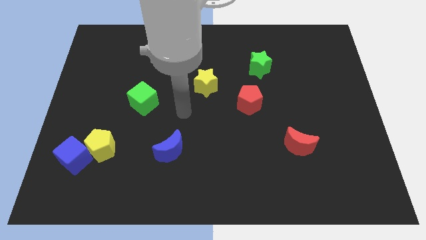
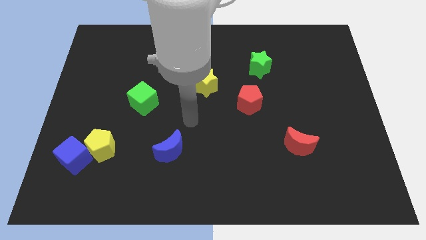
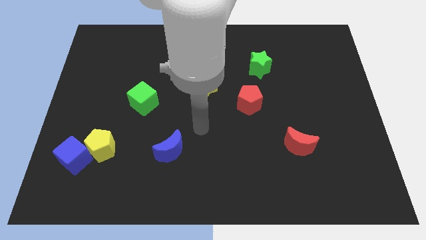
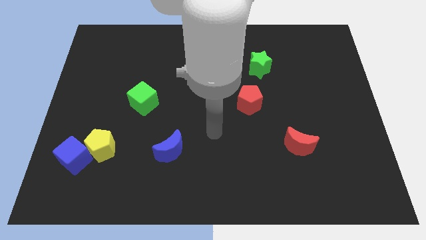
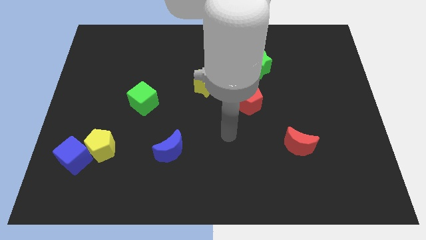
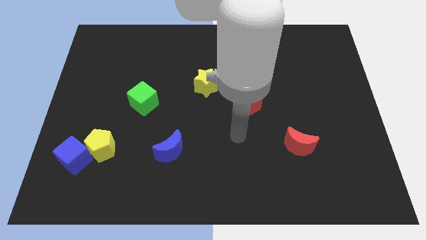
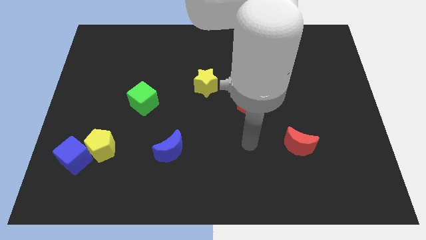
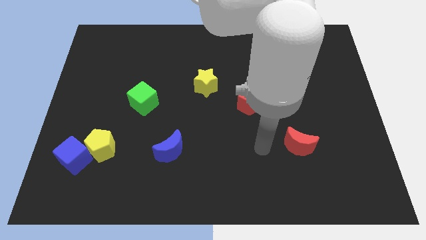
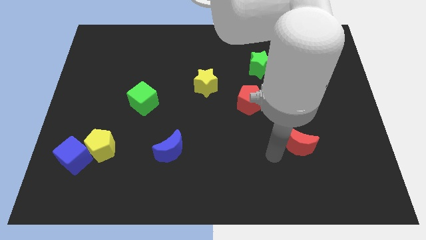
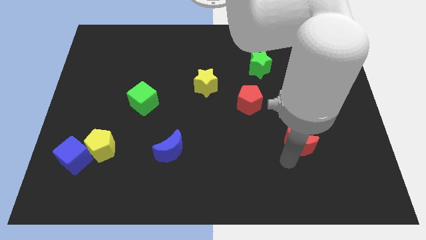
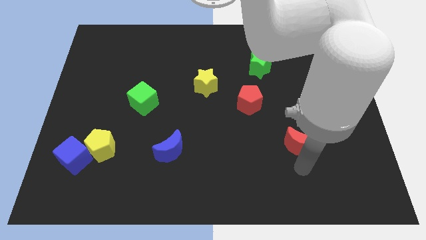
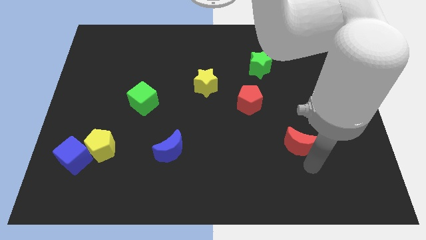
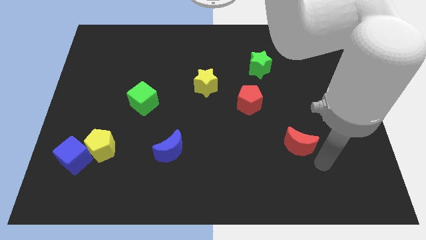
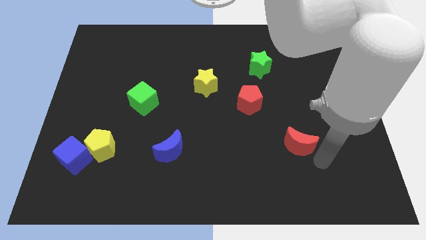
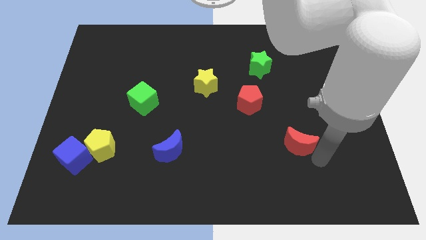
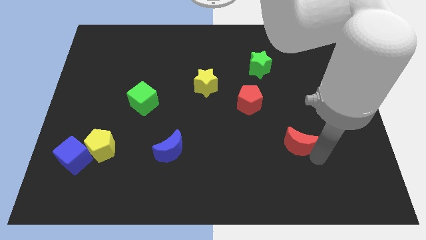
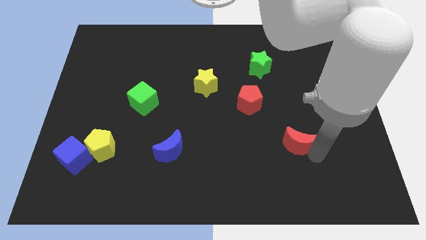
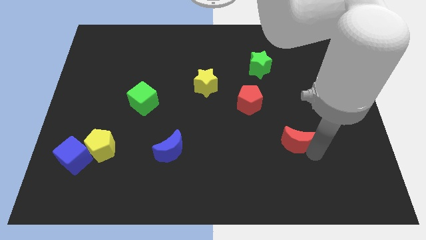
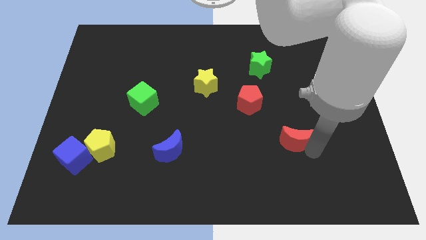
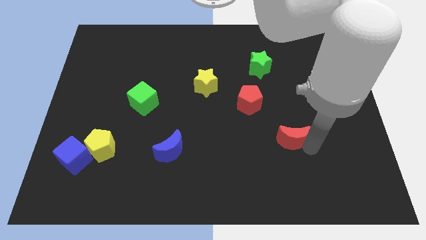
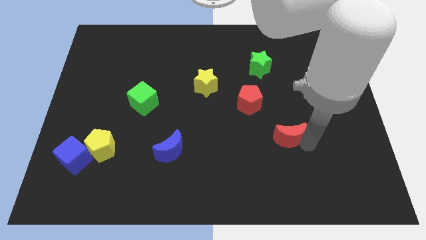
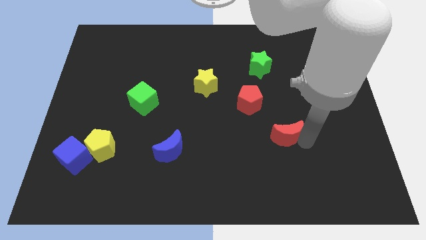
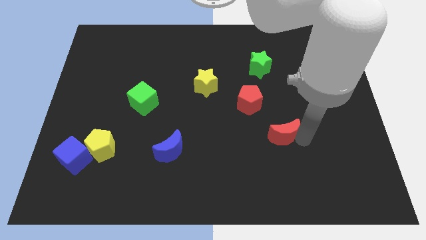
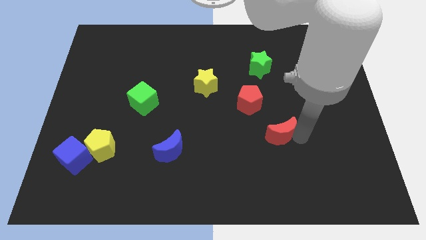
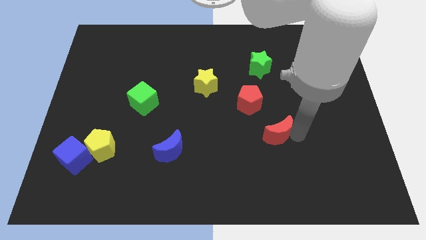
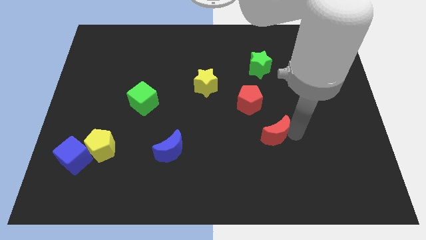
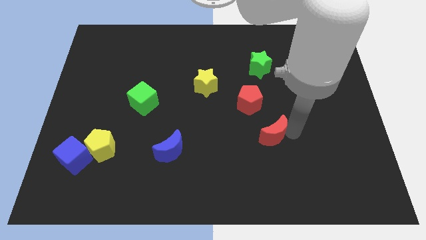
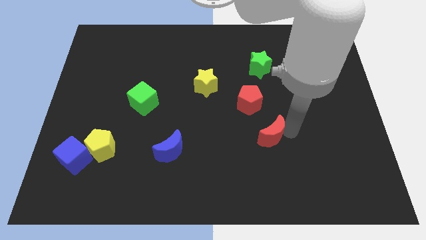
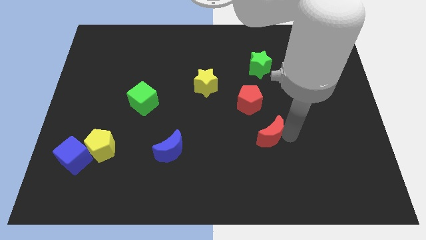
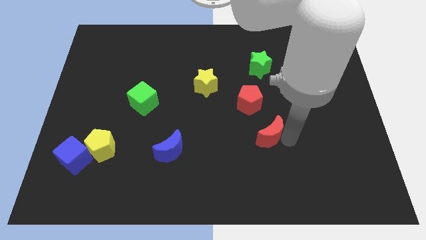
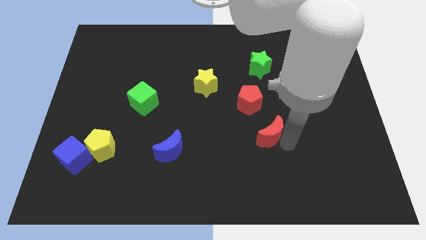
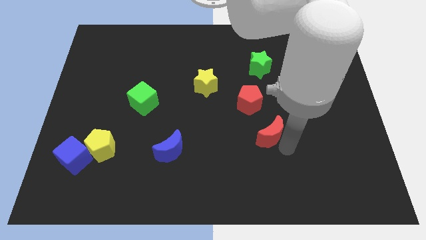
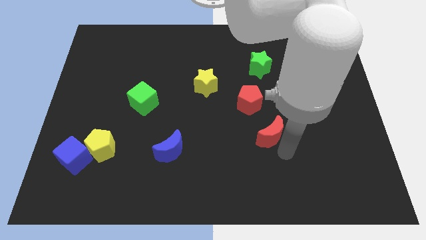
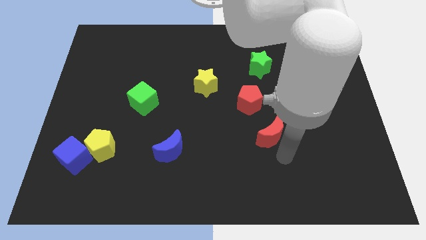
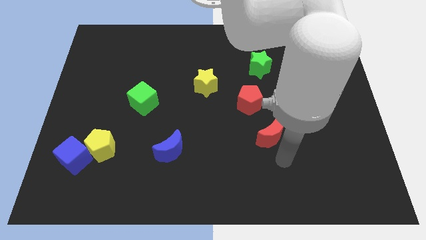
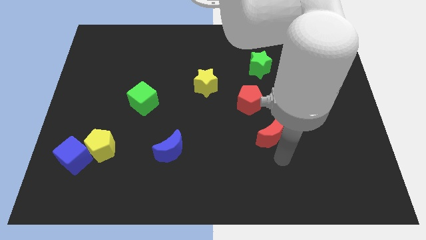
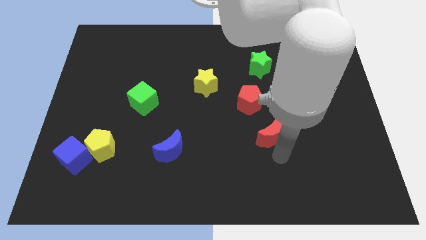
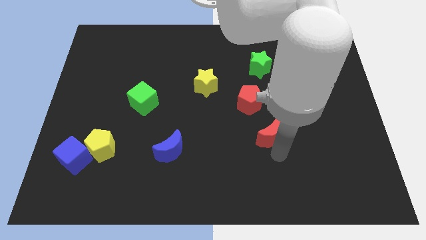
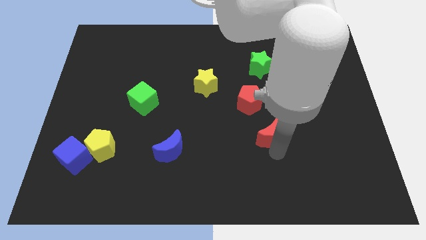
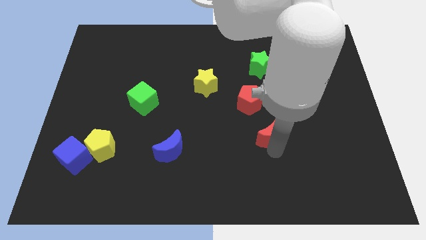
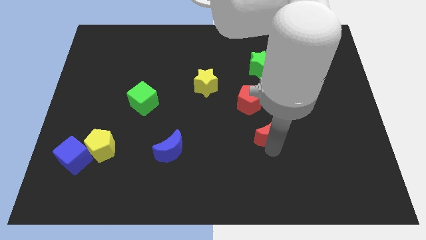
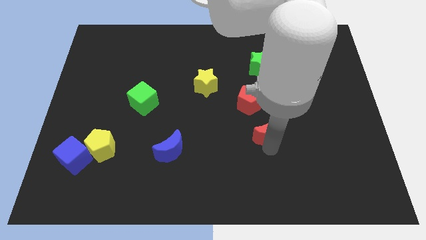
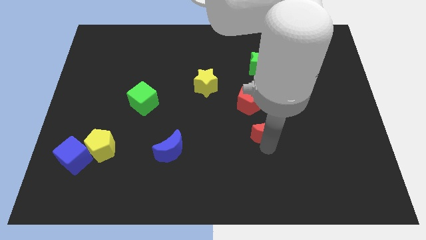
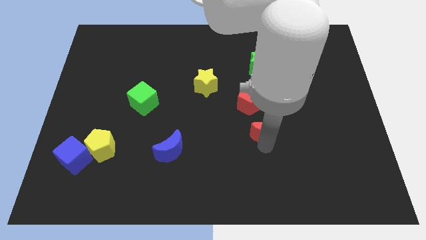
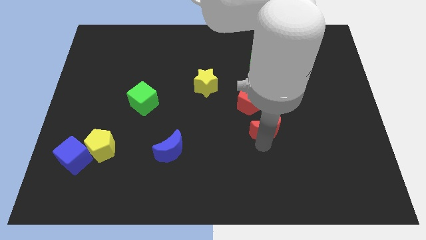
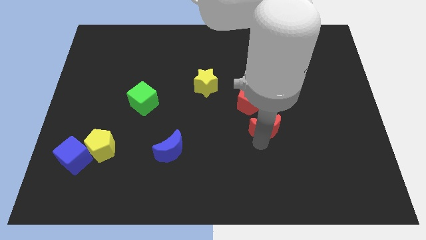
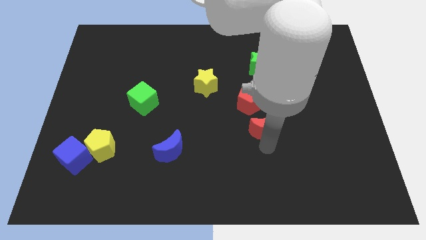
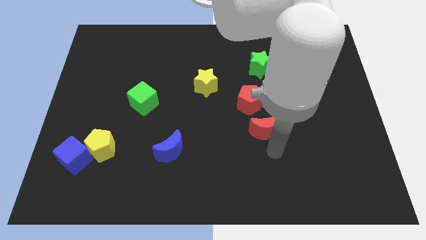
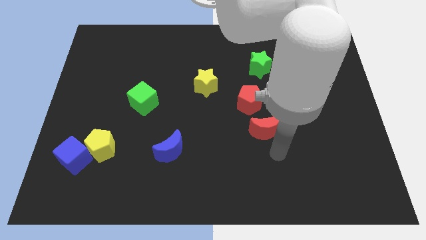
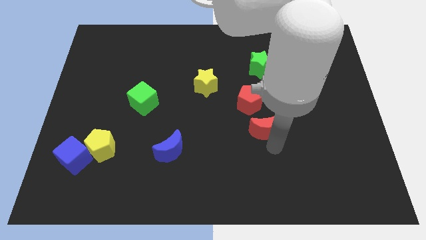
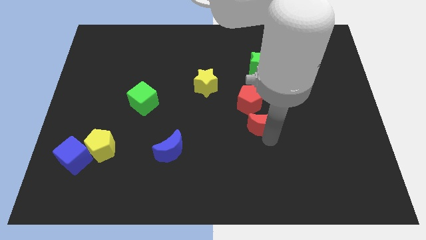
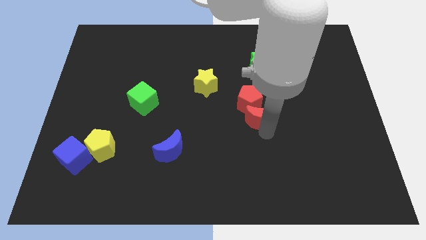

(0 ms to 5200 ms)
slide the red moon to the red pentagon

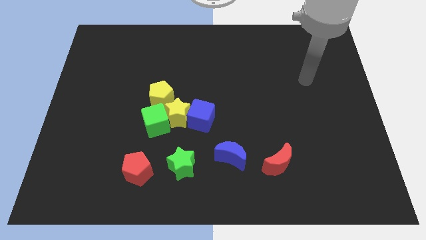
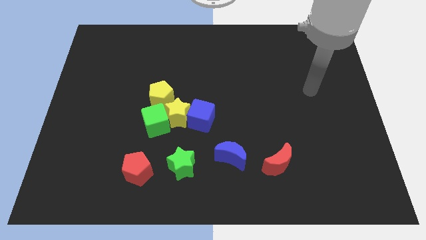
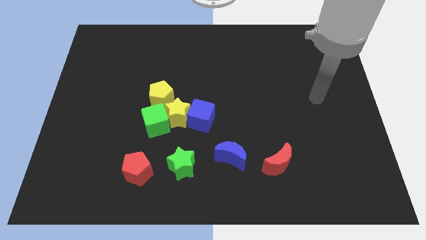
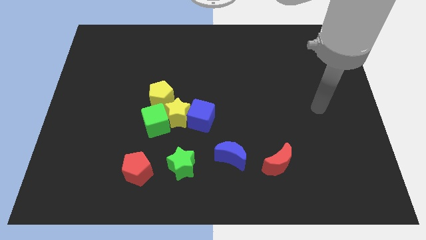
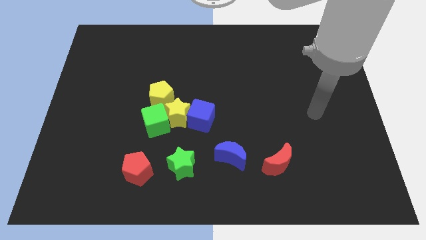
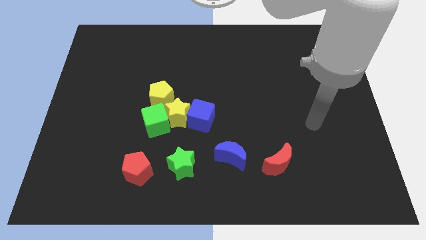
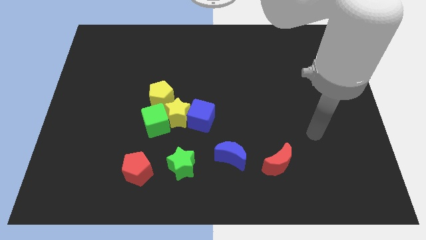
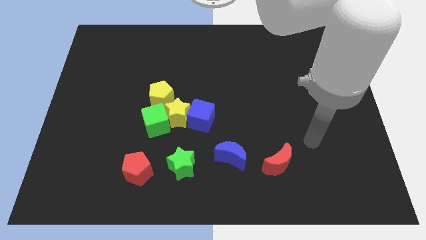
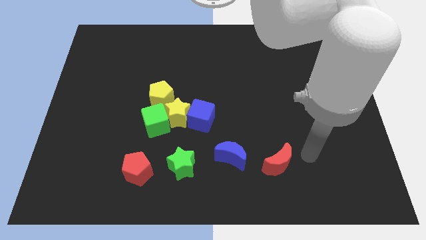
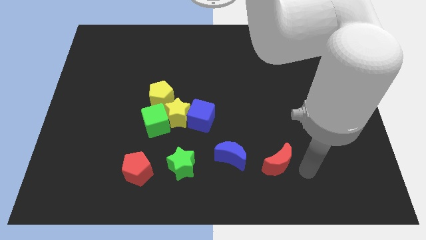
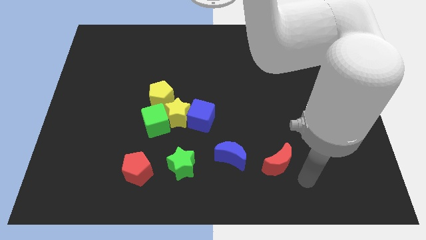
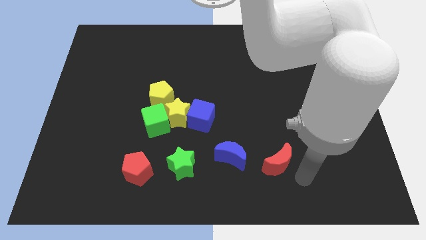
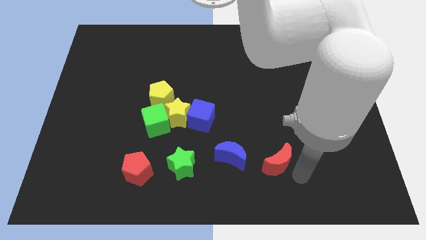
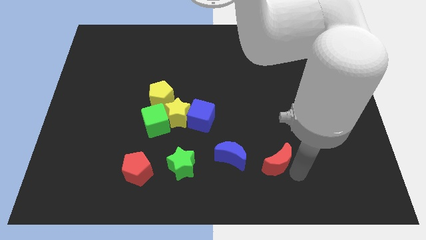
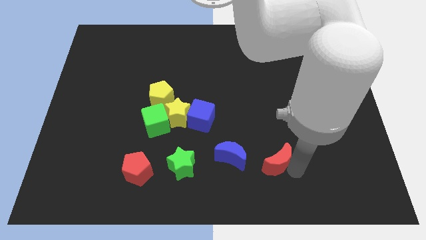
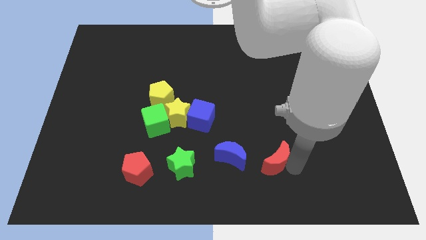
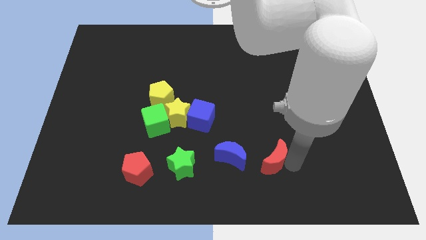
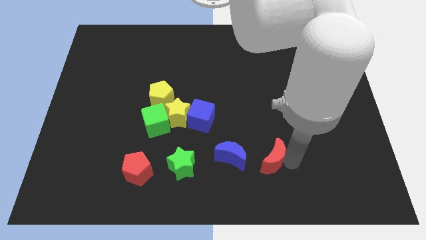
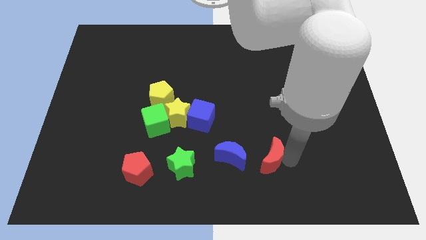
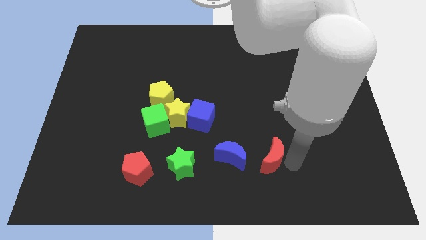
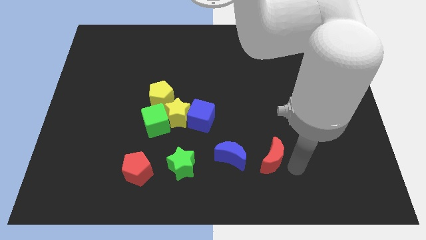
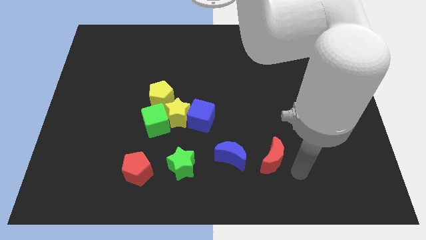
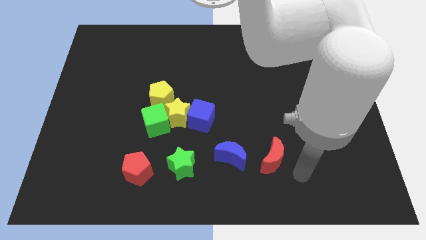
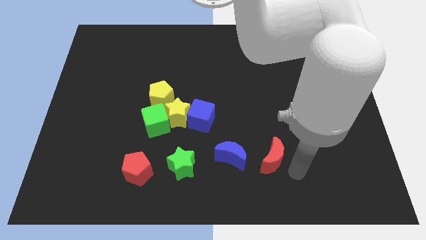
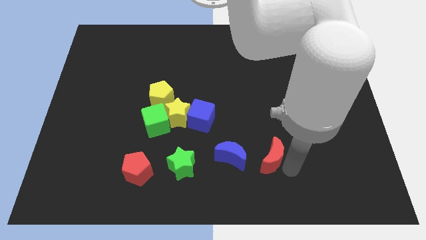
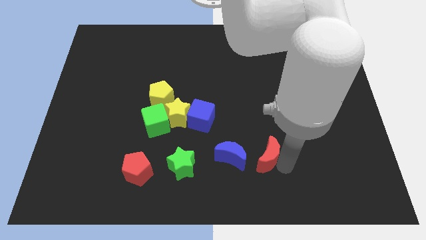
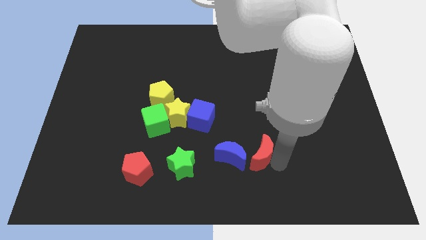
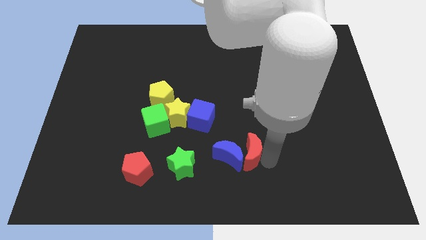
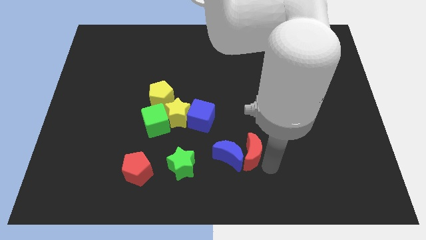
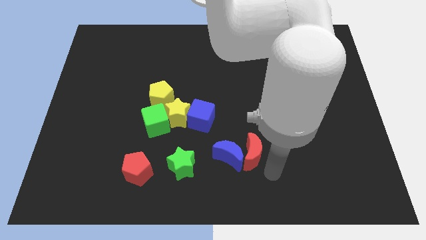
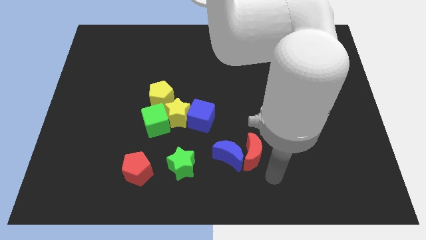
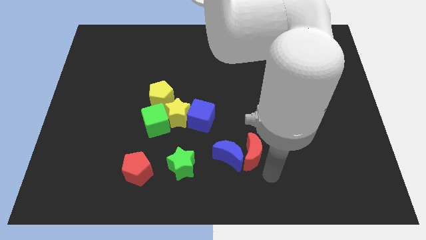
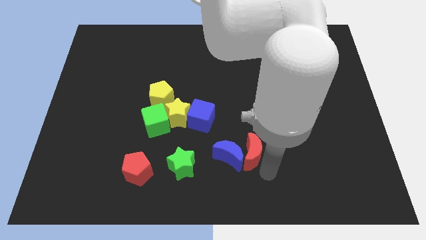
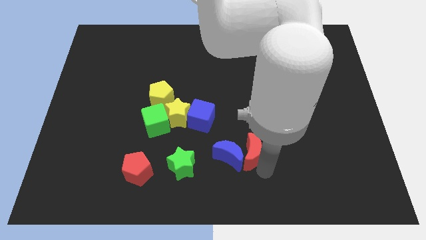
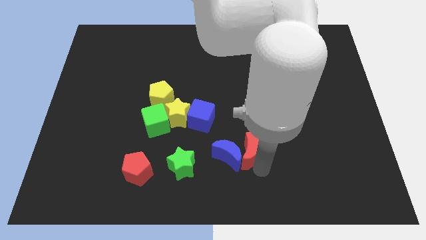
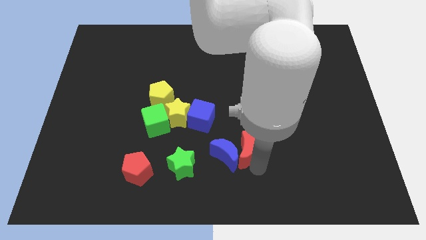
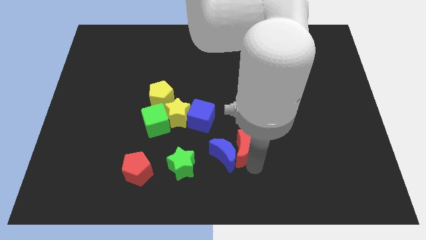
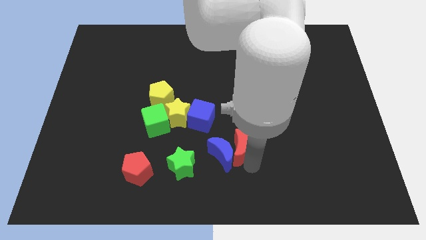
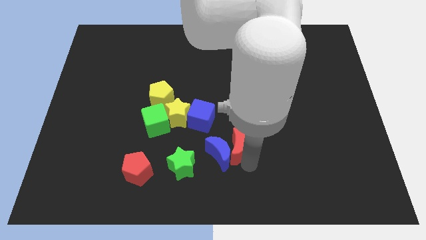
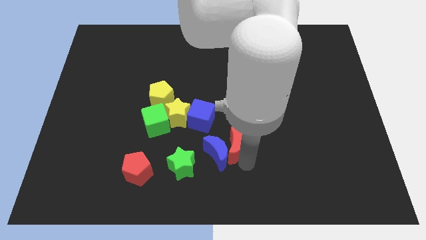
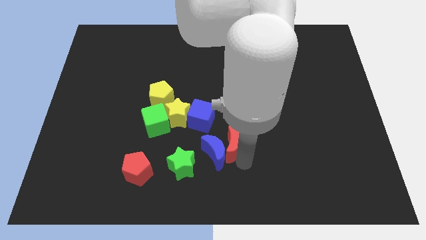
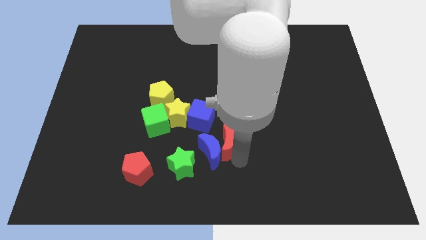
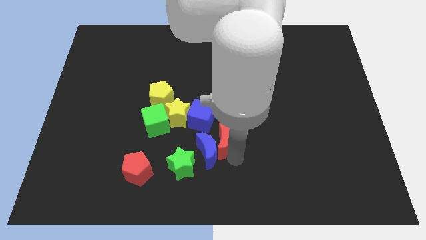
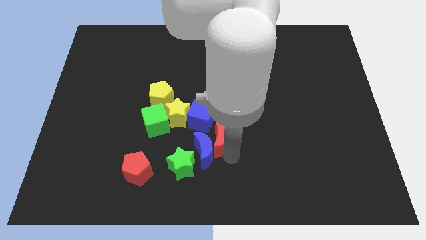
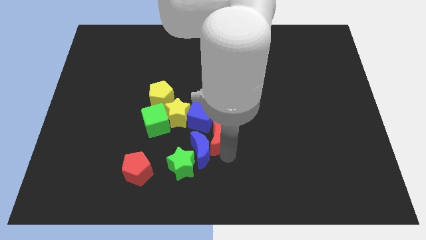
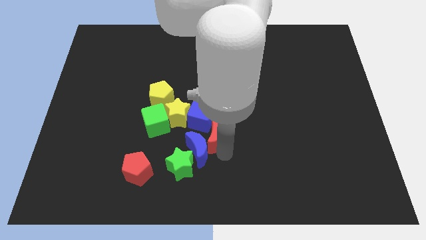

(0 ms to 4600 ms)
slide the red moon close to the blue cube
